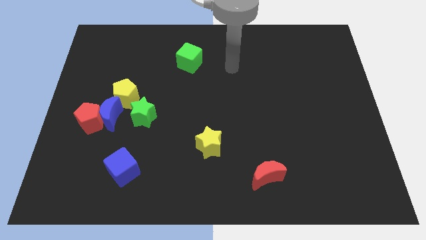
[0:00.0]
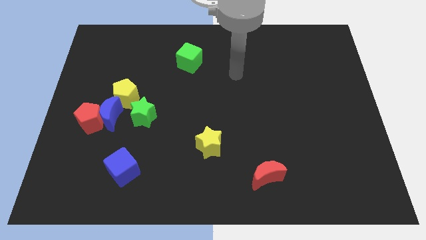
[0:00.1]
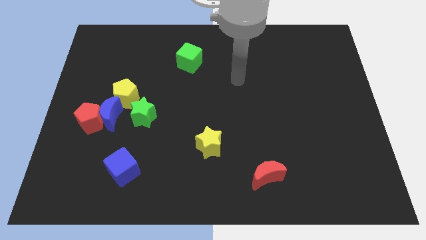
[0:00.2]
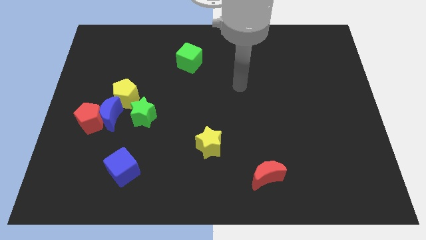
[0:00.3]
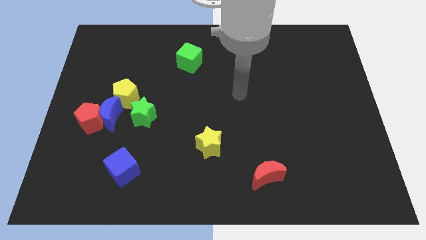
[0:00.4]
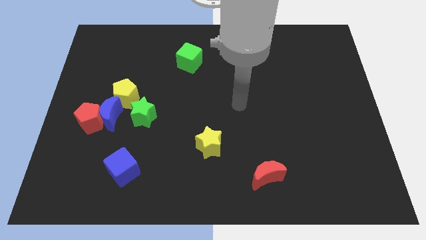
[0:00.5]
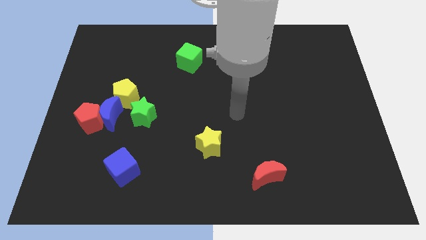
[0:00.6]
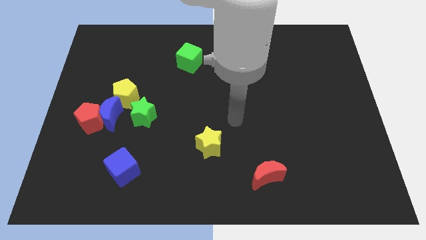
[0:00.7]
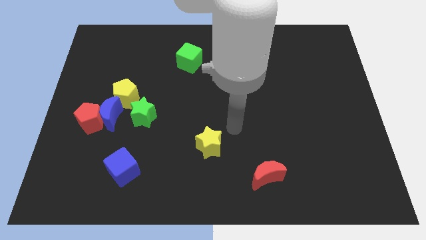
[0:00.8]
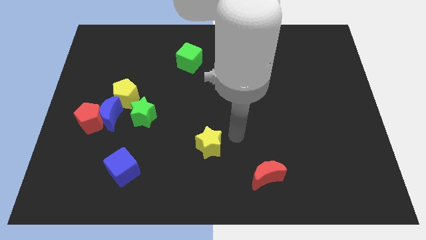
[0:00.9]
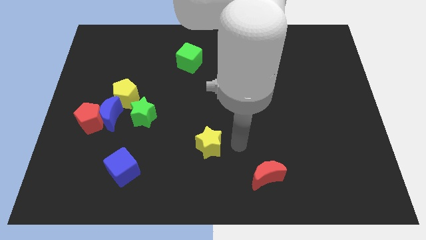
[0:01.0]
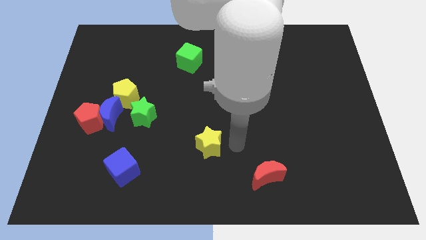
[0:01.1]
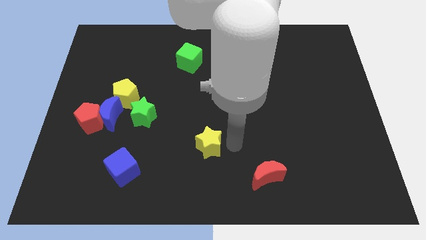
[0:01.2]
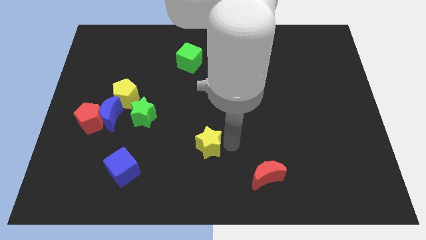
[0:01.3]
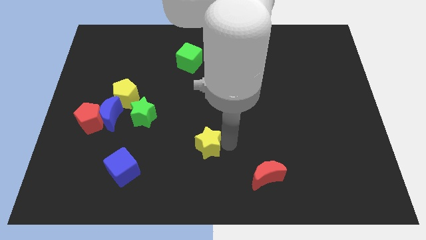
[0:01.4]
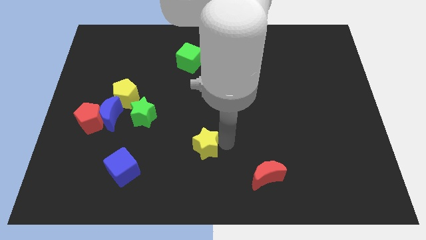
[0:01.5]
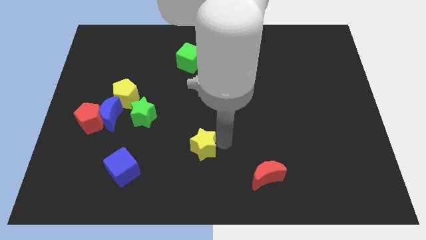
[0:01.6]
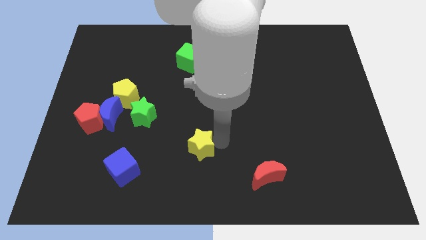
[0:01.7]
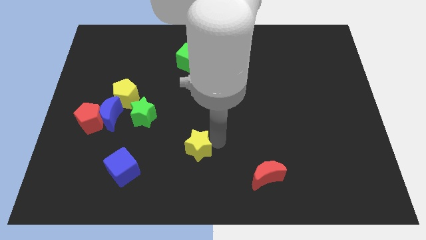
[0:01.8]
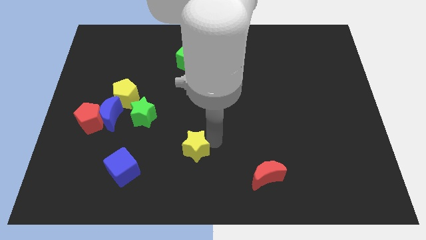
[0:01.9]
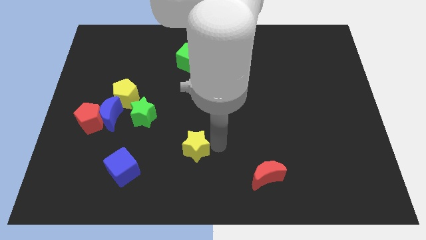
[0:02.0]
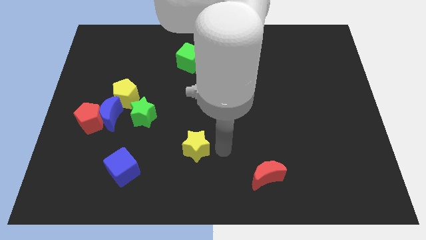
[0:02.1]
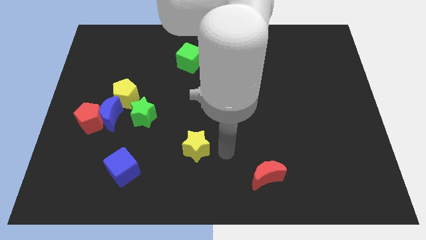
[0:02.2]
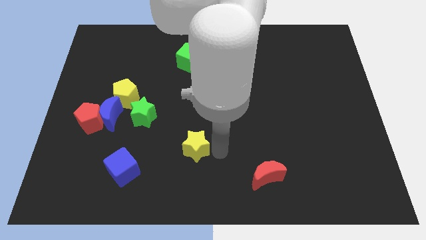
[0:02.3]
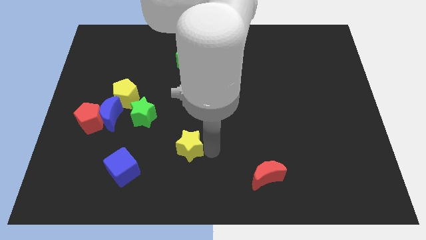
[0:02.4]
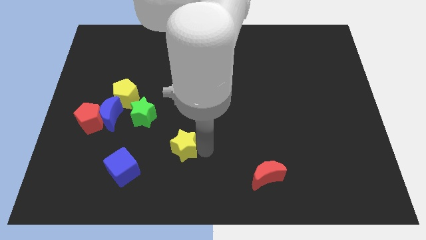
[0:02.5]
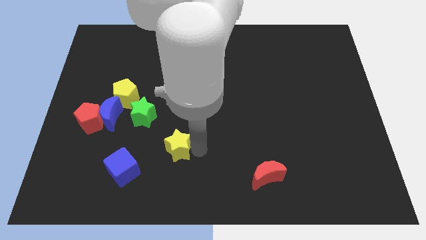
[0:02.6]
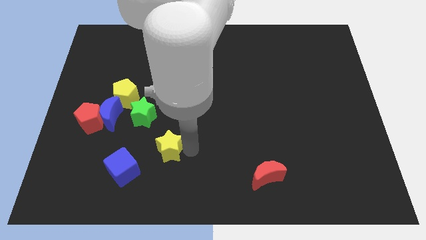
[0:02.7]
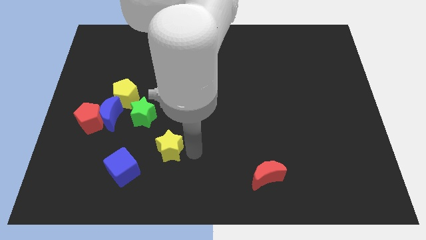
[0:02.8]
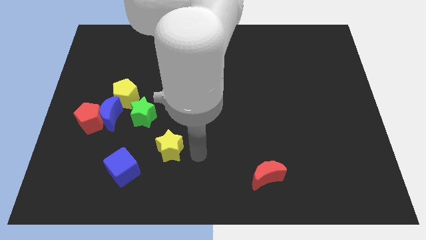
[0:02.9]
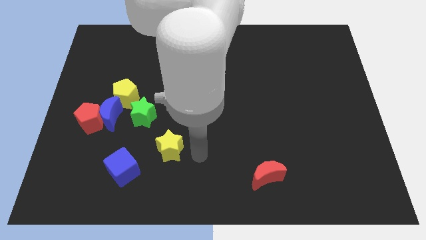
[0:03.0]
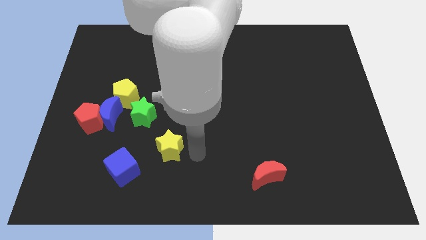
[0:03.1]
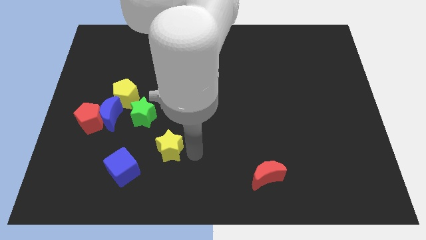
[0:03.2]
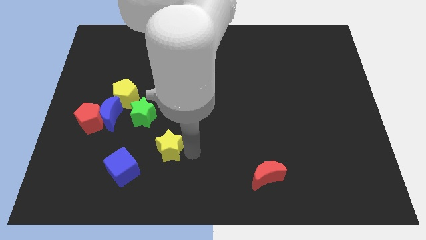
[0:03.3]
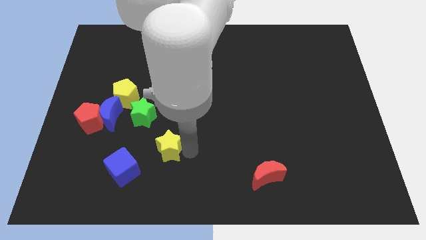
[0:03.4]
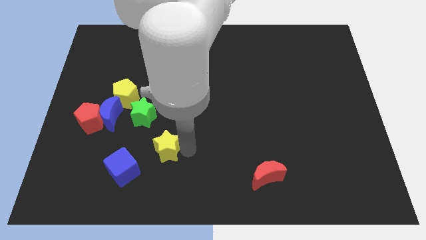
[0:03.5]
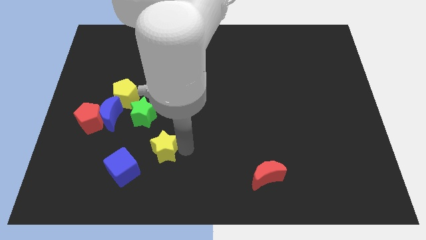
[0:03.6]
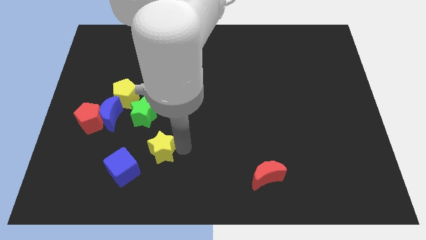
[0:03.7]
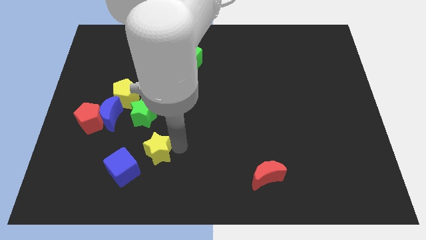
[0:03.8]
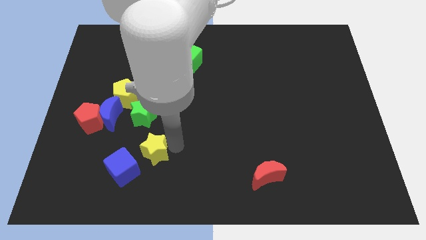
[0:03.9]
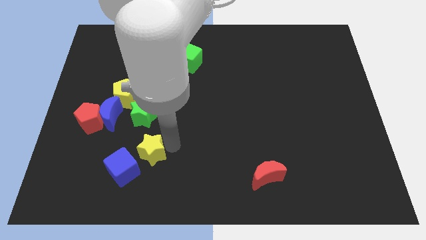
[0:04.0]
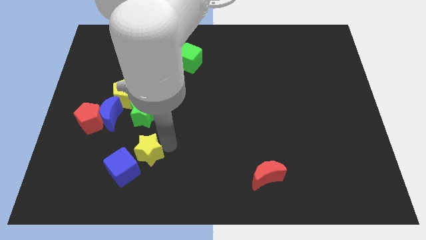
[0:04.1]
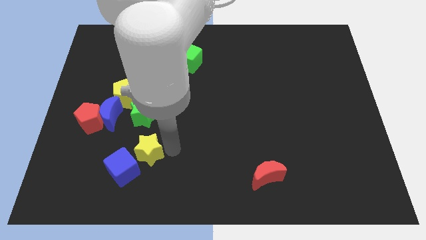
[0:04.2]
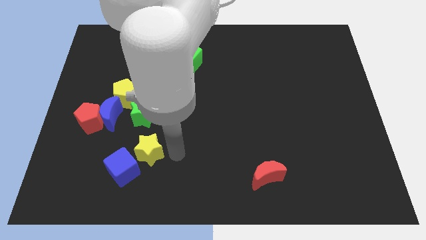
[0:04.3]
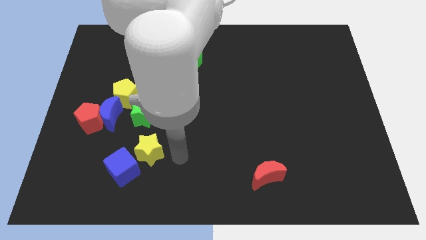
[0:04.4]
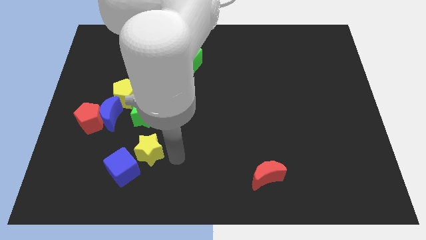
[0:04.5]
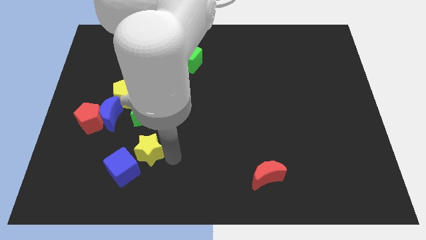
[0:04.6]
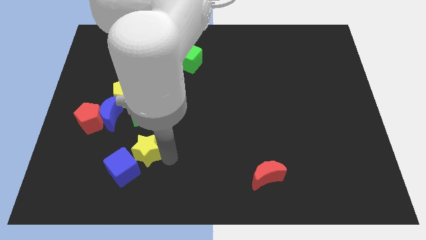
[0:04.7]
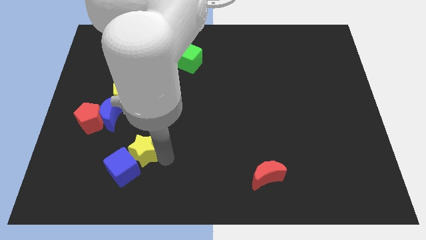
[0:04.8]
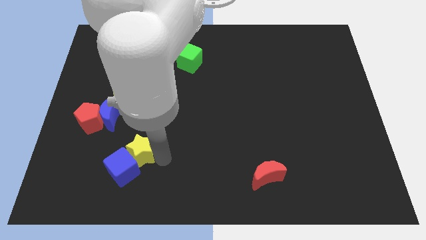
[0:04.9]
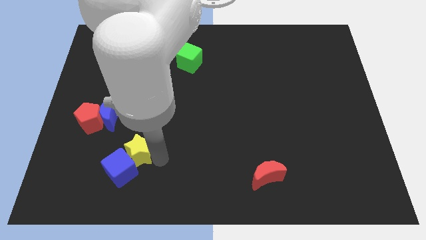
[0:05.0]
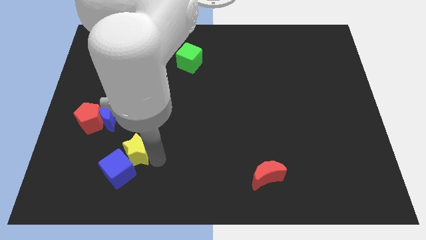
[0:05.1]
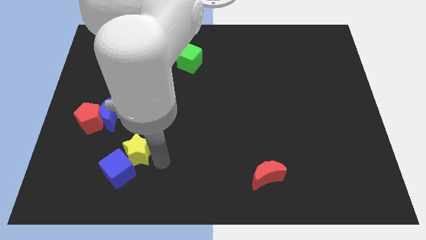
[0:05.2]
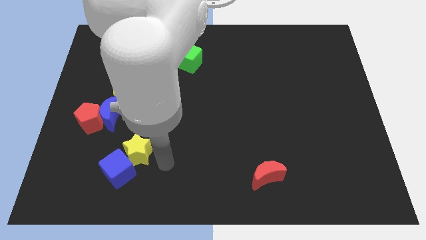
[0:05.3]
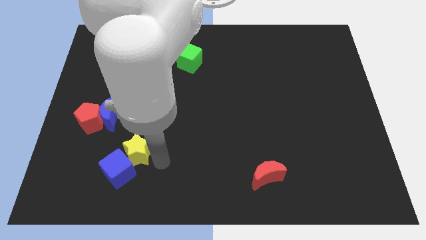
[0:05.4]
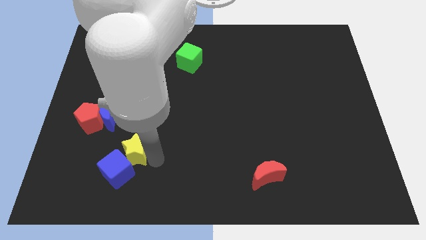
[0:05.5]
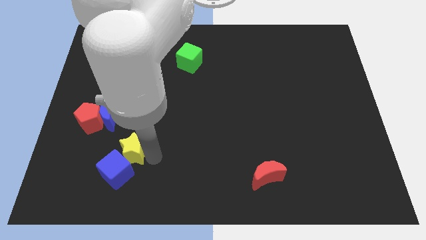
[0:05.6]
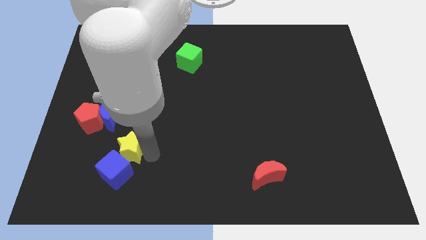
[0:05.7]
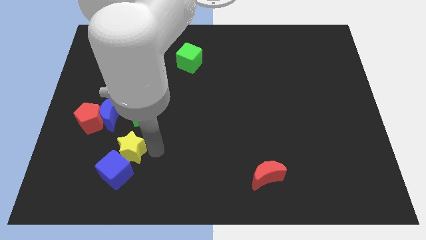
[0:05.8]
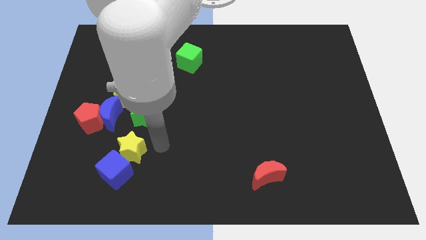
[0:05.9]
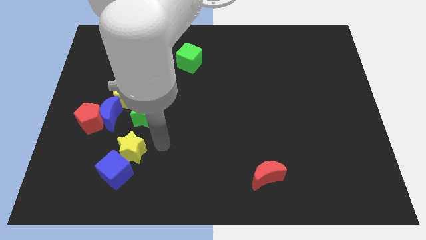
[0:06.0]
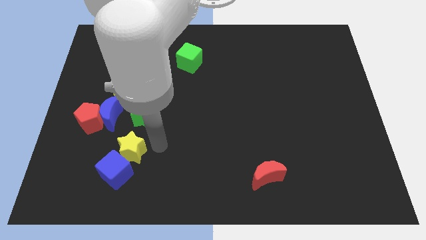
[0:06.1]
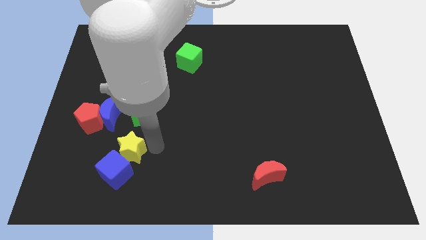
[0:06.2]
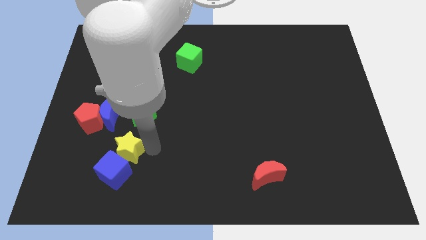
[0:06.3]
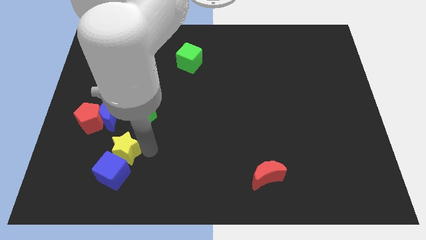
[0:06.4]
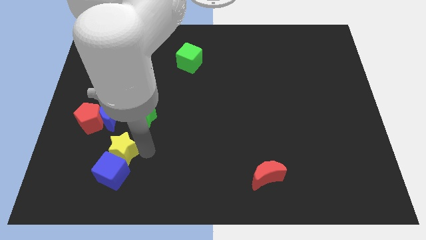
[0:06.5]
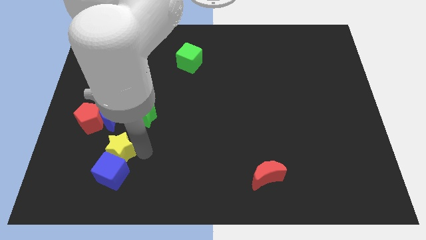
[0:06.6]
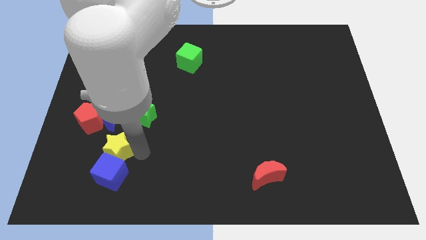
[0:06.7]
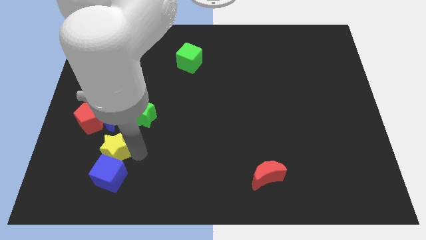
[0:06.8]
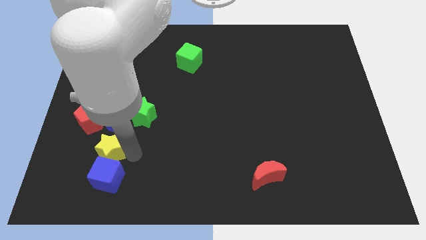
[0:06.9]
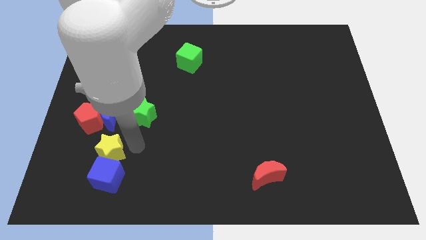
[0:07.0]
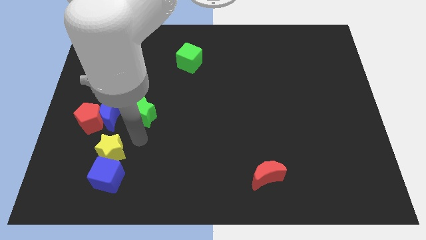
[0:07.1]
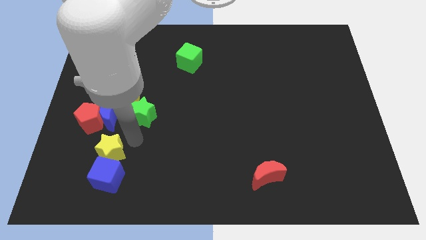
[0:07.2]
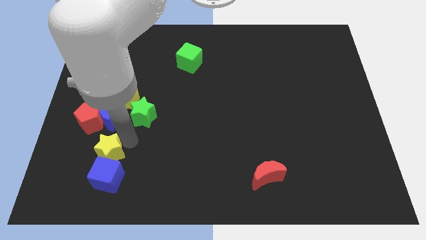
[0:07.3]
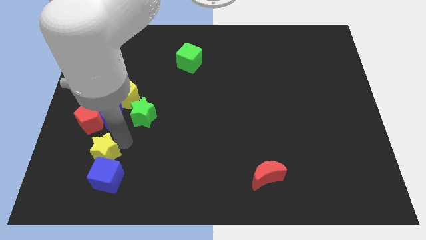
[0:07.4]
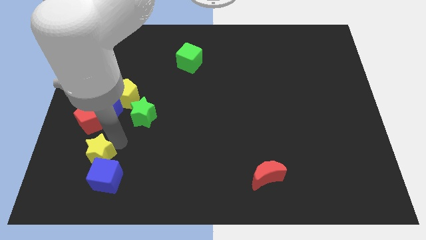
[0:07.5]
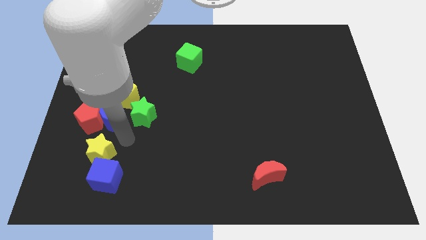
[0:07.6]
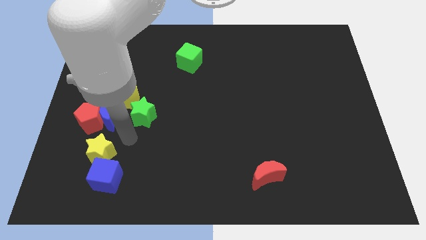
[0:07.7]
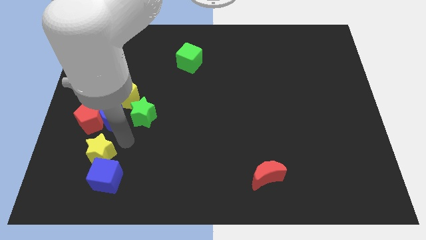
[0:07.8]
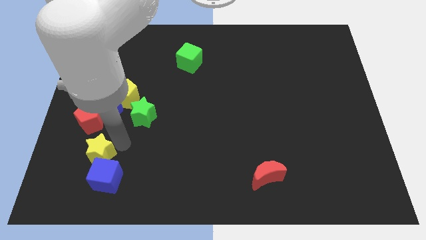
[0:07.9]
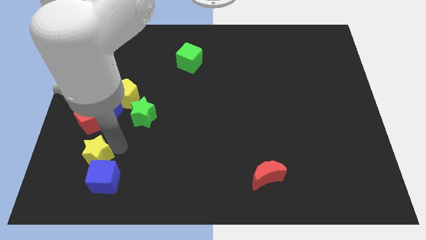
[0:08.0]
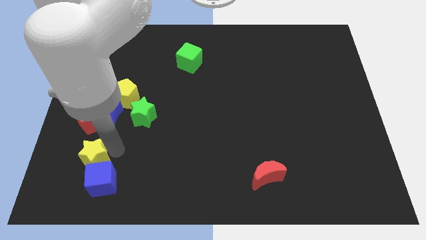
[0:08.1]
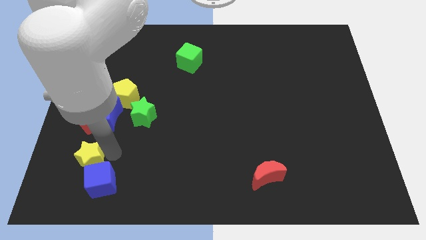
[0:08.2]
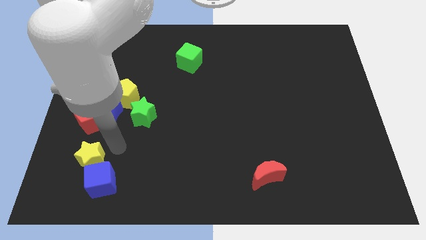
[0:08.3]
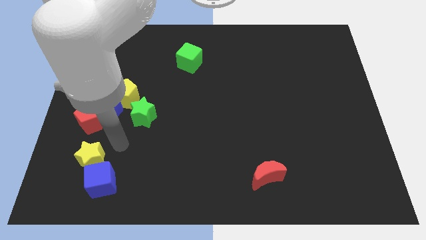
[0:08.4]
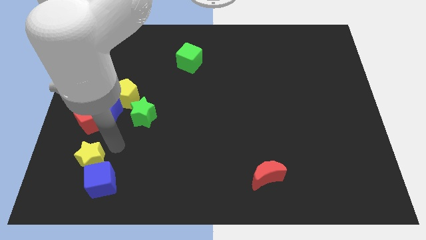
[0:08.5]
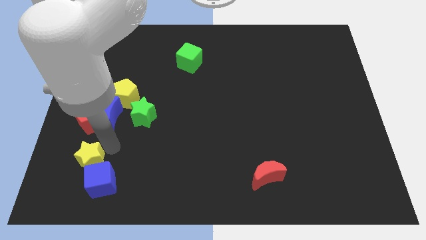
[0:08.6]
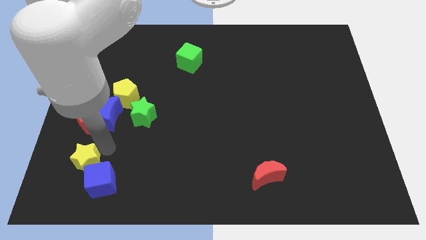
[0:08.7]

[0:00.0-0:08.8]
push the yellow star to the left of the blue cube
